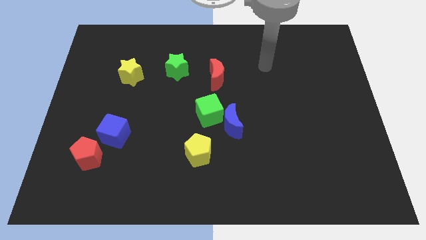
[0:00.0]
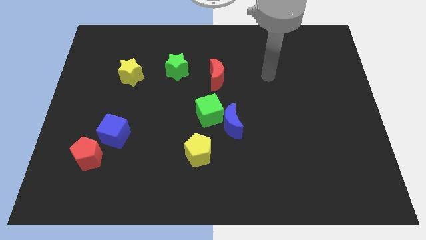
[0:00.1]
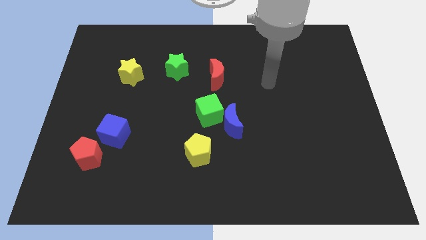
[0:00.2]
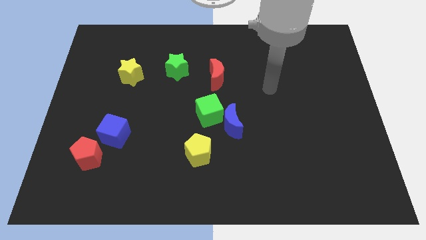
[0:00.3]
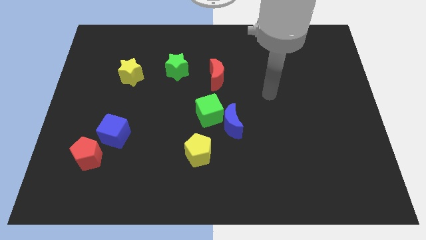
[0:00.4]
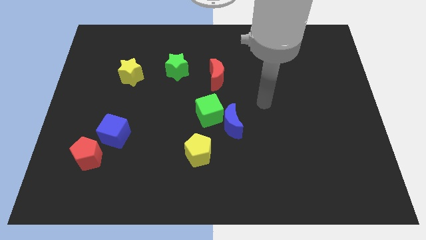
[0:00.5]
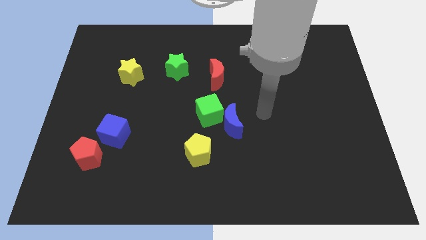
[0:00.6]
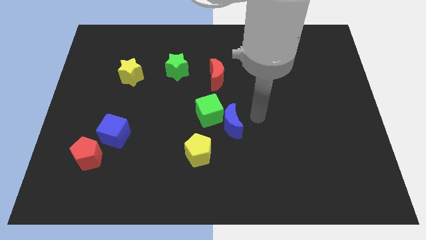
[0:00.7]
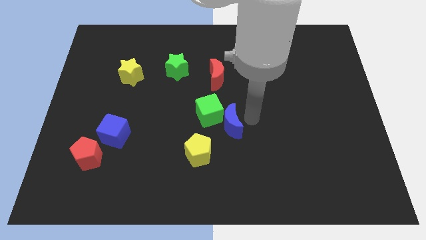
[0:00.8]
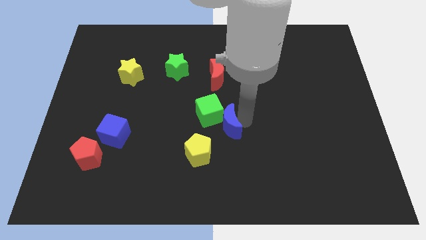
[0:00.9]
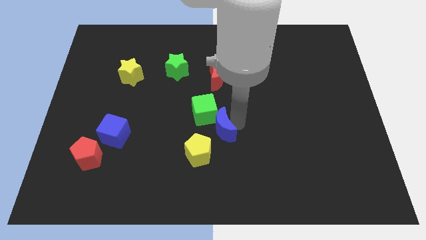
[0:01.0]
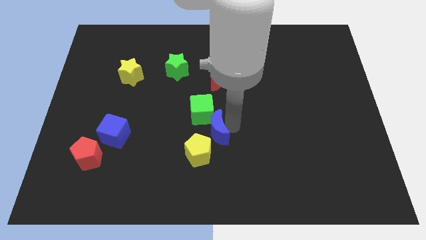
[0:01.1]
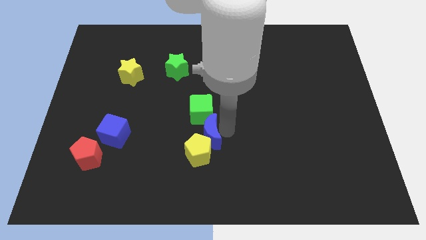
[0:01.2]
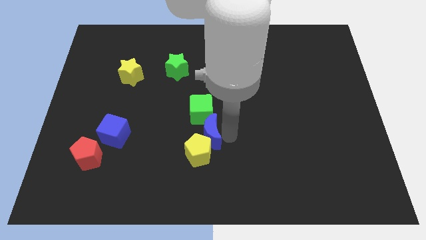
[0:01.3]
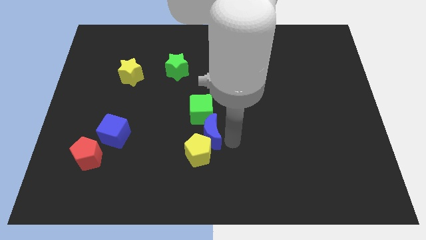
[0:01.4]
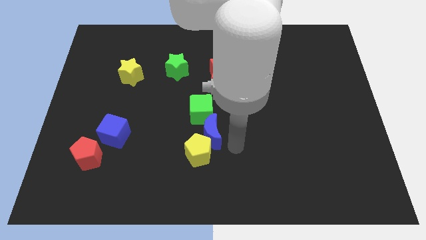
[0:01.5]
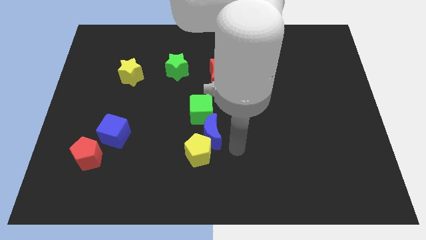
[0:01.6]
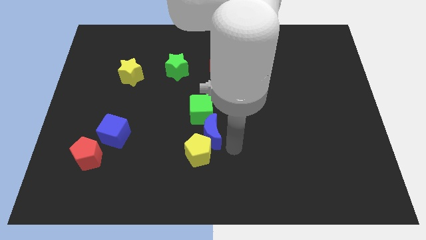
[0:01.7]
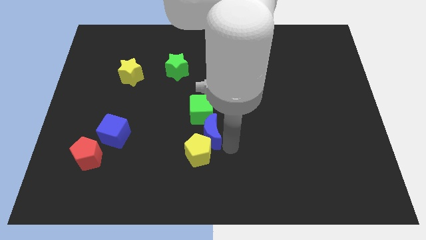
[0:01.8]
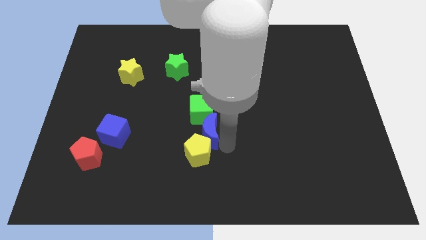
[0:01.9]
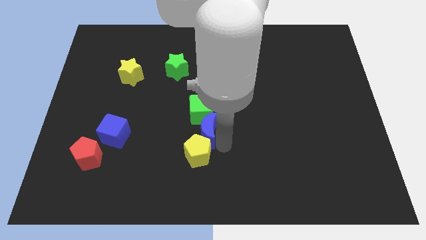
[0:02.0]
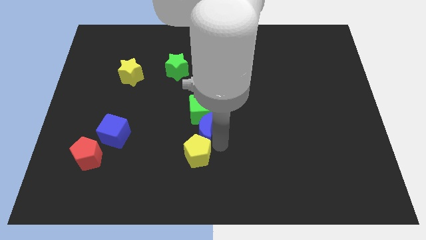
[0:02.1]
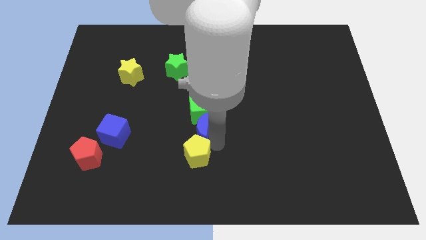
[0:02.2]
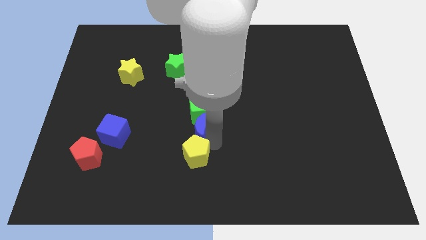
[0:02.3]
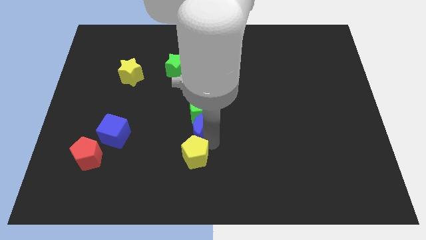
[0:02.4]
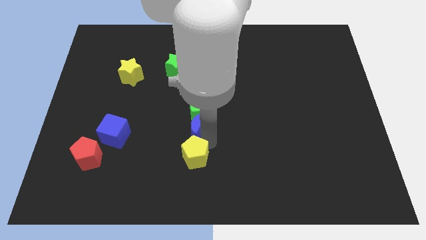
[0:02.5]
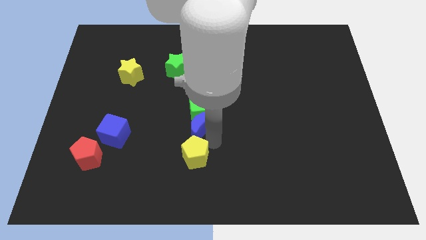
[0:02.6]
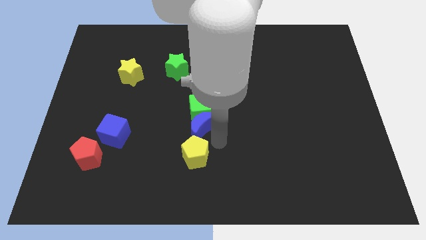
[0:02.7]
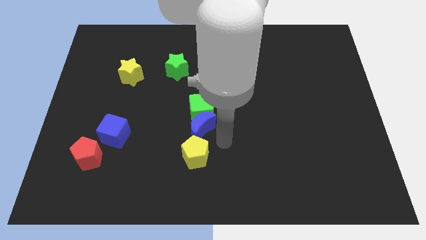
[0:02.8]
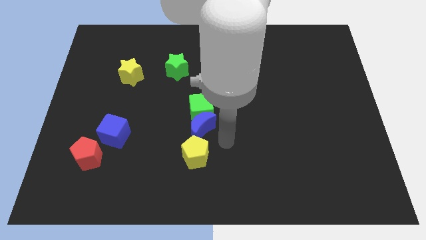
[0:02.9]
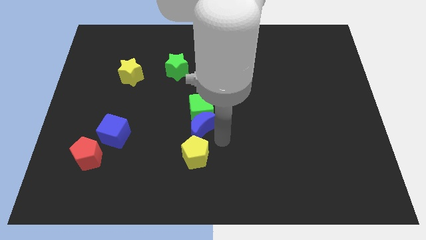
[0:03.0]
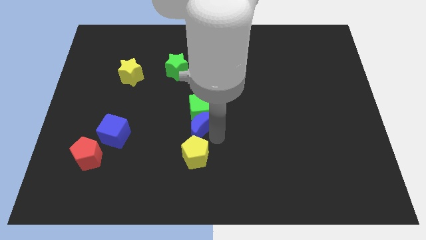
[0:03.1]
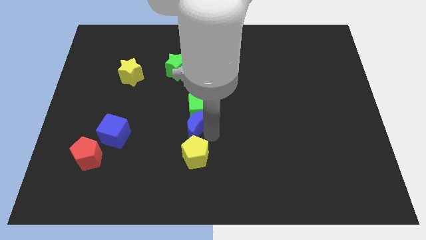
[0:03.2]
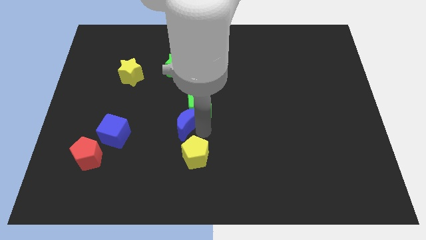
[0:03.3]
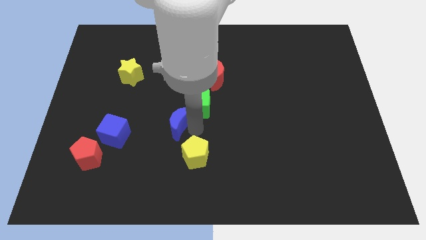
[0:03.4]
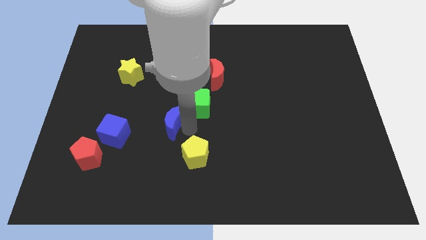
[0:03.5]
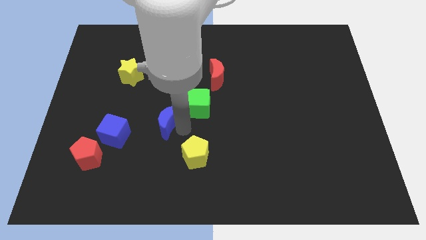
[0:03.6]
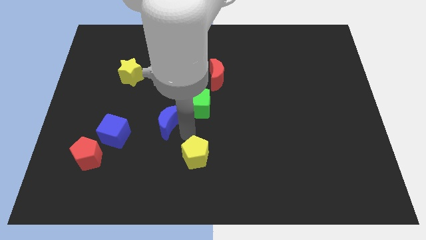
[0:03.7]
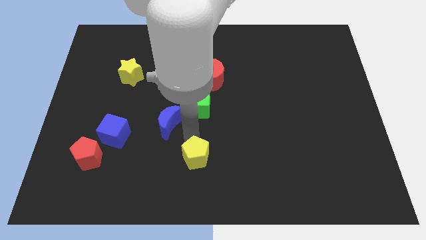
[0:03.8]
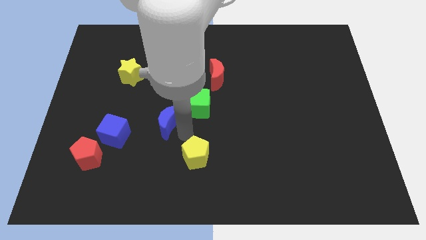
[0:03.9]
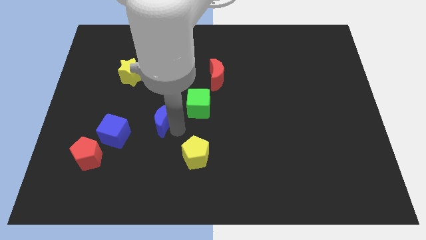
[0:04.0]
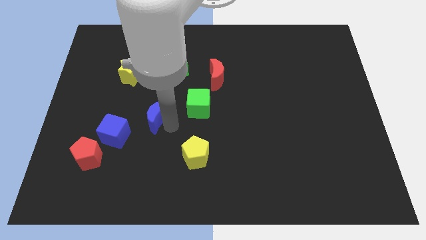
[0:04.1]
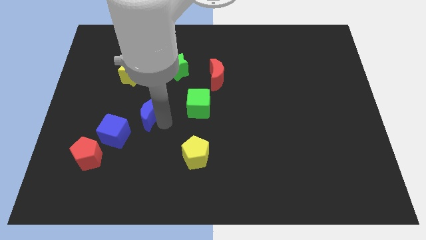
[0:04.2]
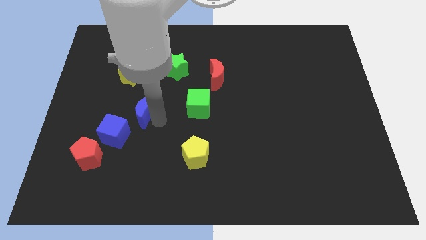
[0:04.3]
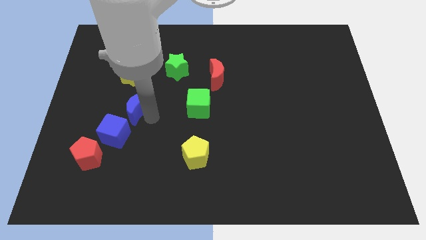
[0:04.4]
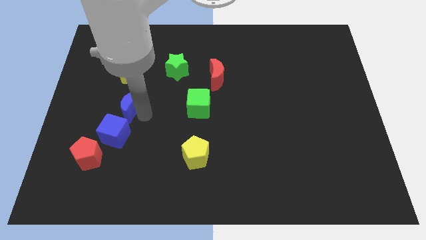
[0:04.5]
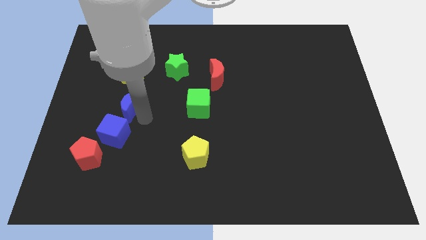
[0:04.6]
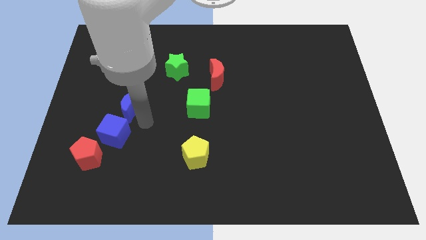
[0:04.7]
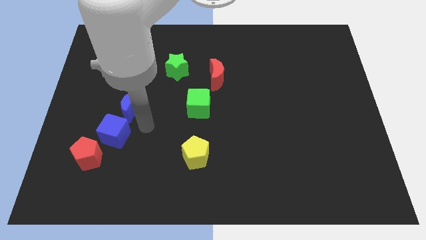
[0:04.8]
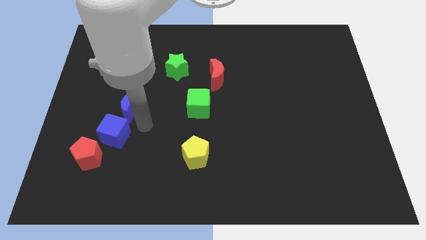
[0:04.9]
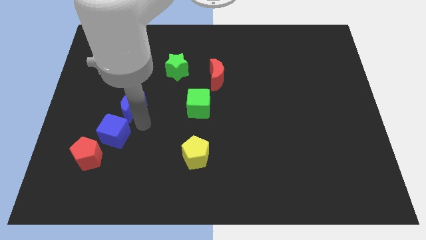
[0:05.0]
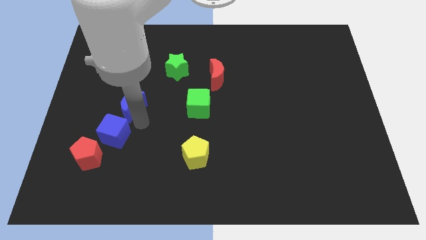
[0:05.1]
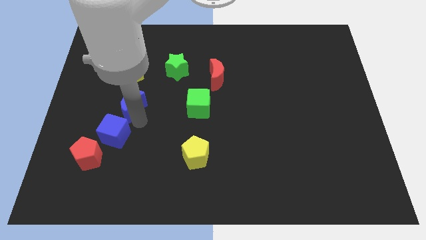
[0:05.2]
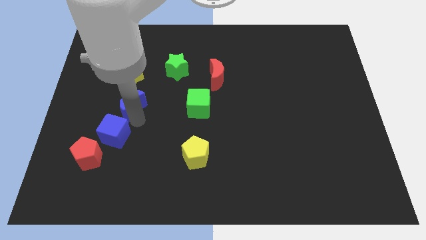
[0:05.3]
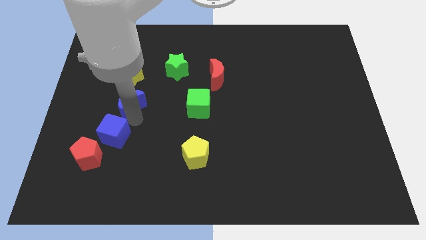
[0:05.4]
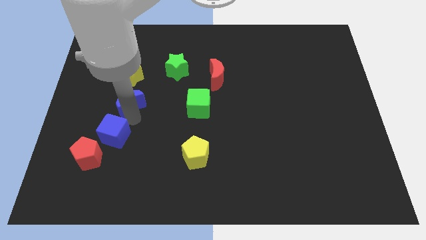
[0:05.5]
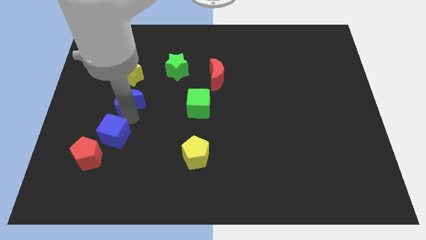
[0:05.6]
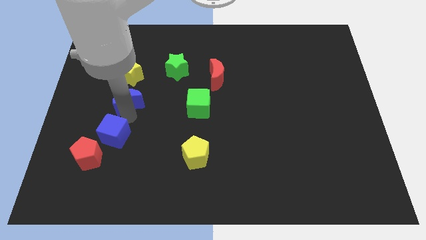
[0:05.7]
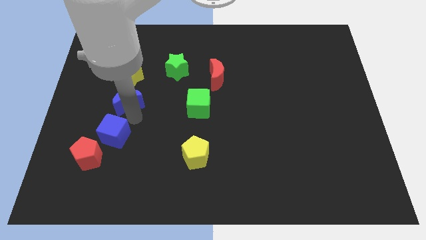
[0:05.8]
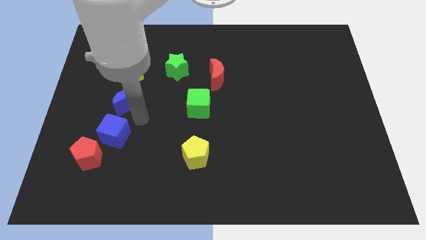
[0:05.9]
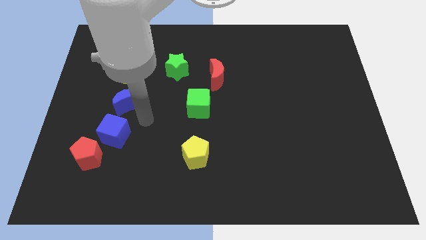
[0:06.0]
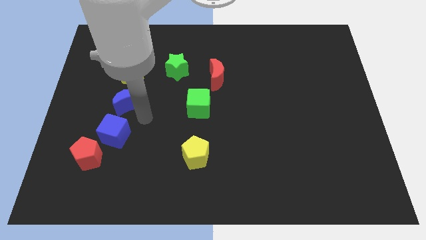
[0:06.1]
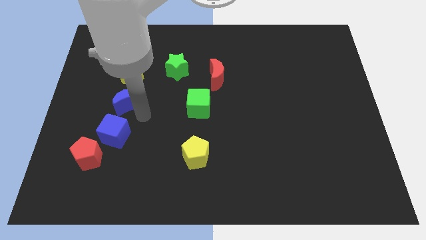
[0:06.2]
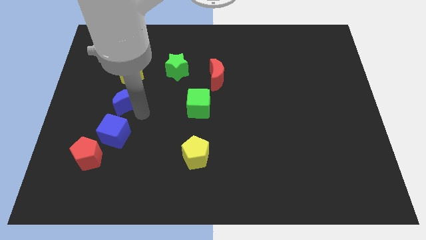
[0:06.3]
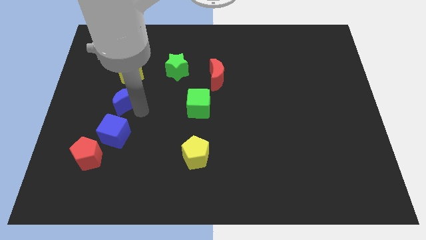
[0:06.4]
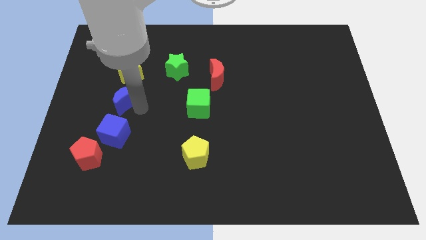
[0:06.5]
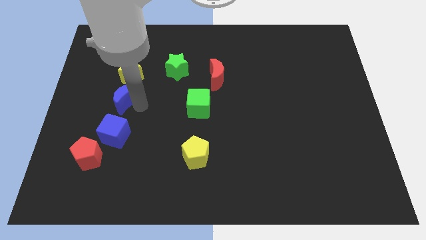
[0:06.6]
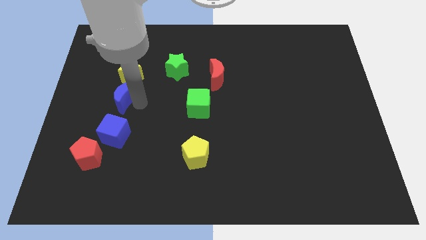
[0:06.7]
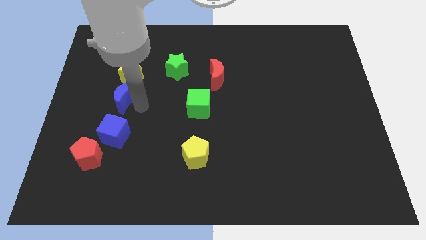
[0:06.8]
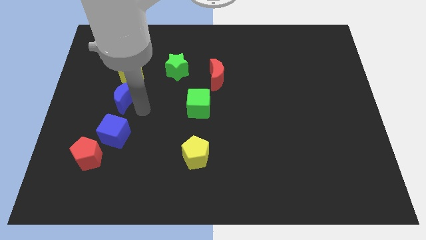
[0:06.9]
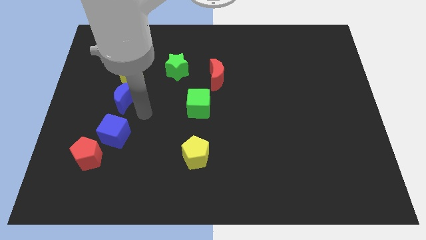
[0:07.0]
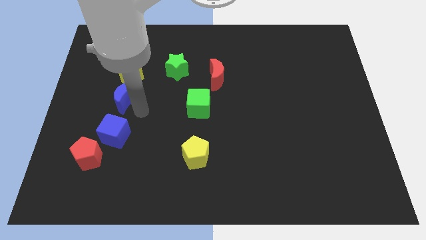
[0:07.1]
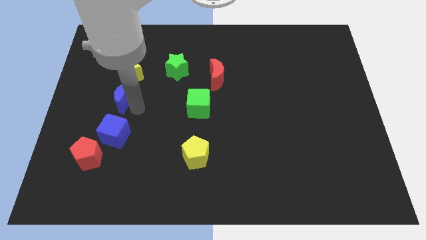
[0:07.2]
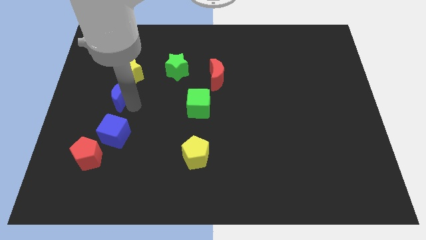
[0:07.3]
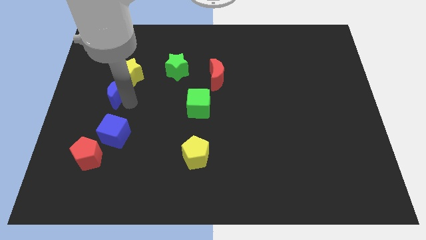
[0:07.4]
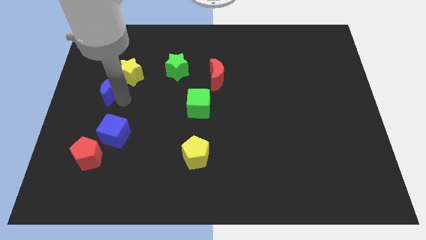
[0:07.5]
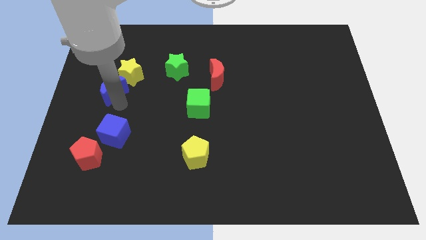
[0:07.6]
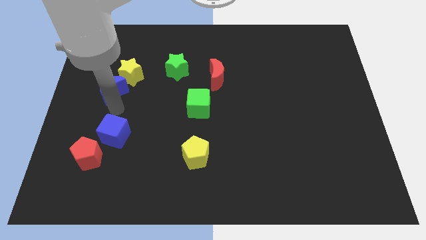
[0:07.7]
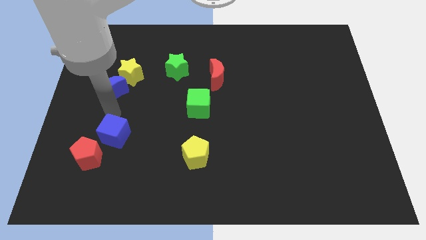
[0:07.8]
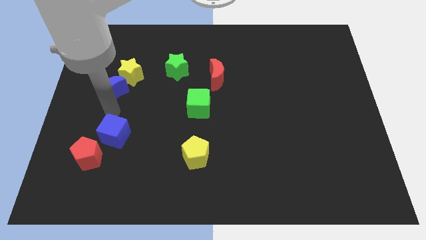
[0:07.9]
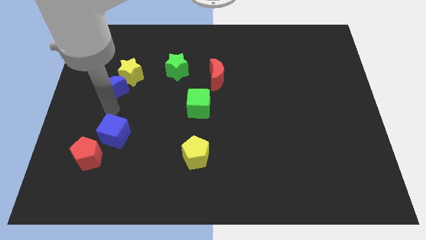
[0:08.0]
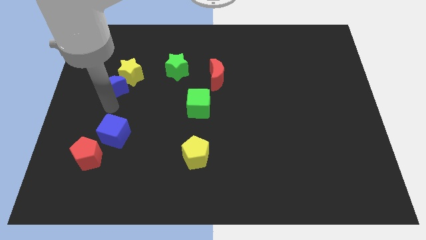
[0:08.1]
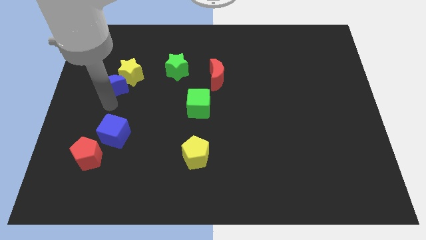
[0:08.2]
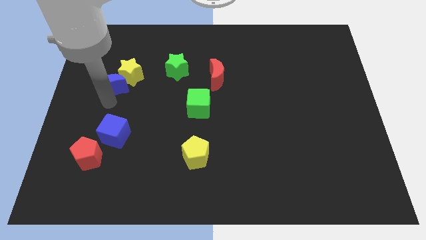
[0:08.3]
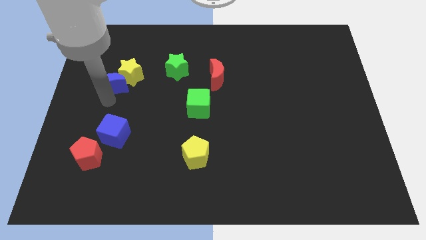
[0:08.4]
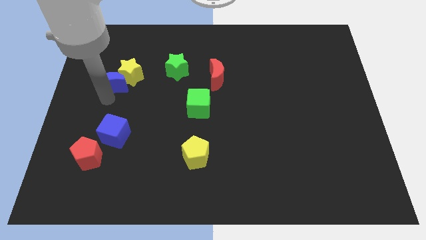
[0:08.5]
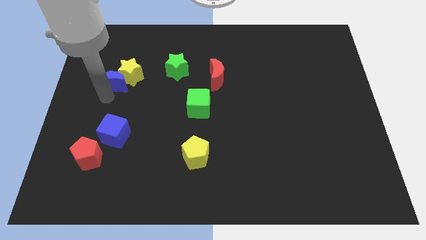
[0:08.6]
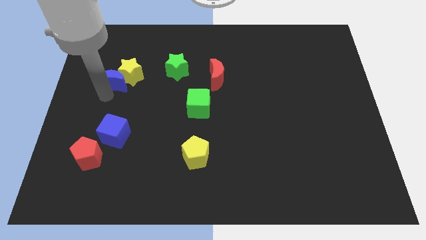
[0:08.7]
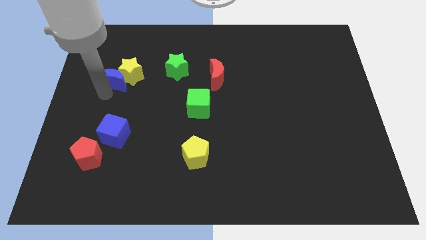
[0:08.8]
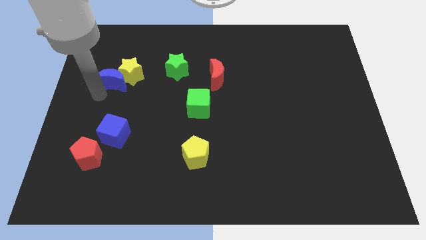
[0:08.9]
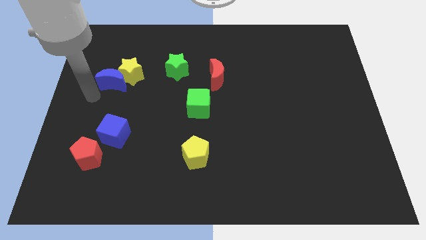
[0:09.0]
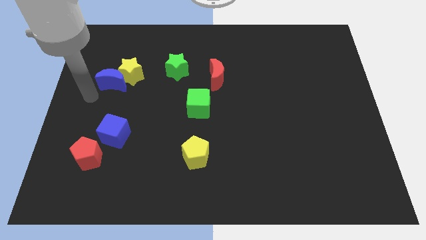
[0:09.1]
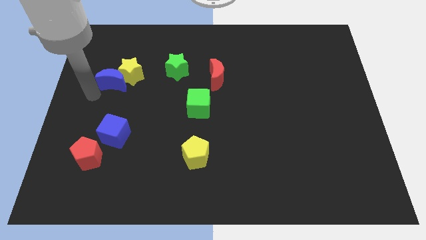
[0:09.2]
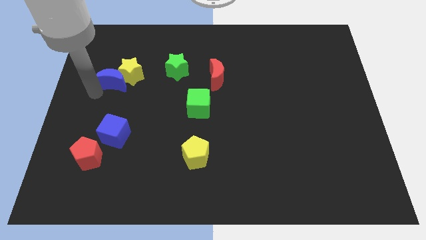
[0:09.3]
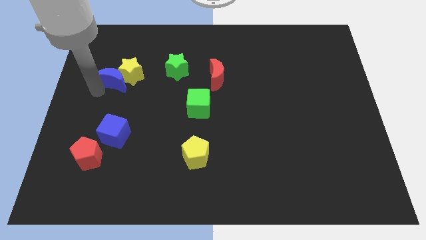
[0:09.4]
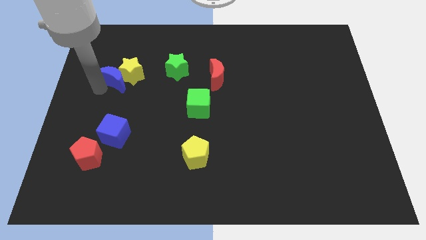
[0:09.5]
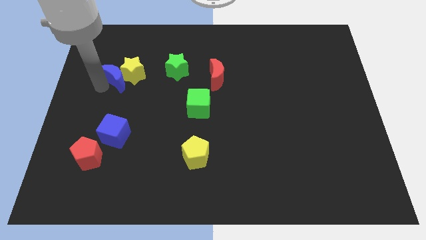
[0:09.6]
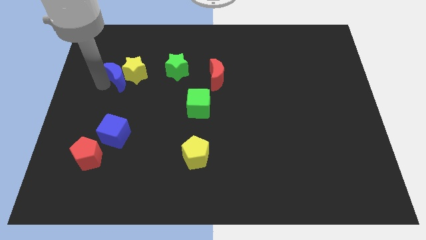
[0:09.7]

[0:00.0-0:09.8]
move the blue moon just left of the green star
